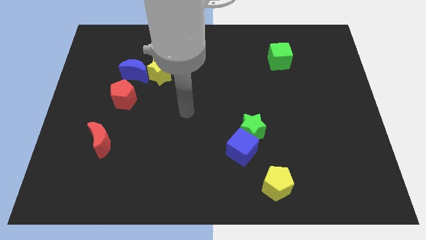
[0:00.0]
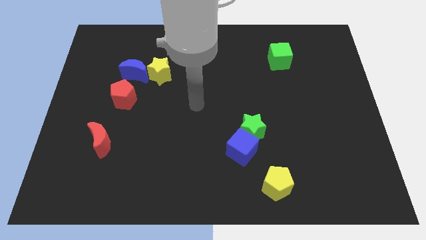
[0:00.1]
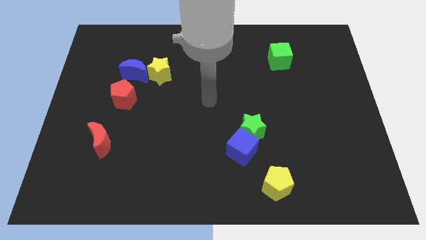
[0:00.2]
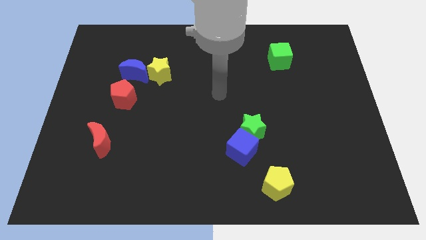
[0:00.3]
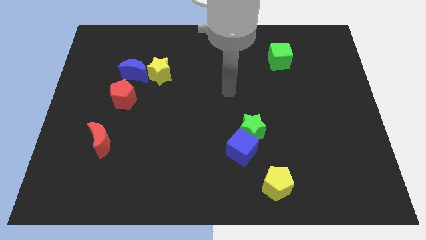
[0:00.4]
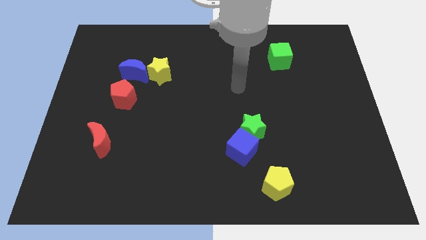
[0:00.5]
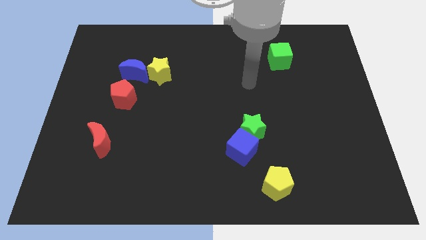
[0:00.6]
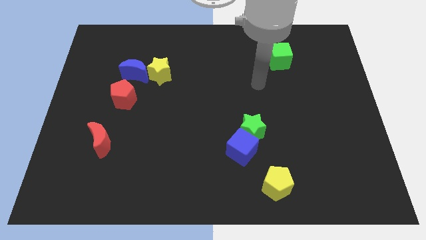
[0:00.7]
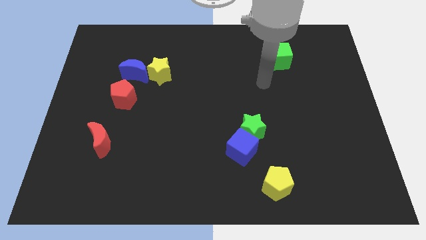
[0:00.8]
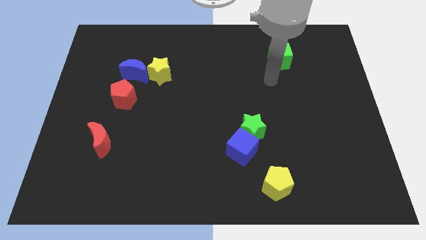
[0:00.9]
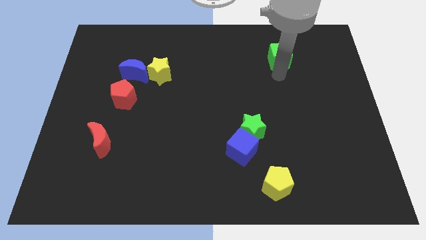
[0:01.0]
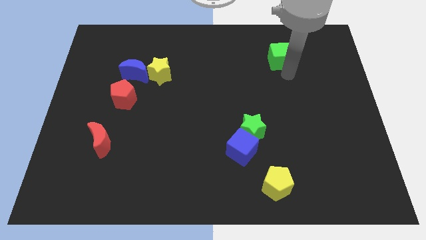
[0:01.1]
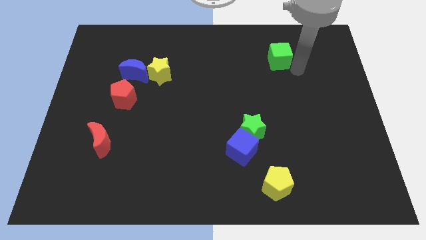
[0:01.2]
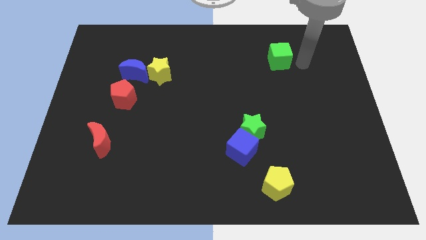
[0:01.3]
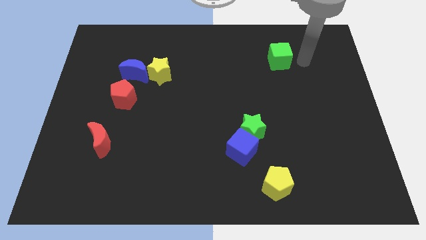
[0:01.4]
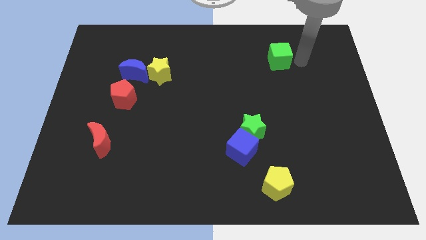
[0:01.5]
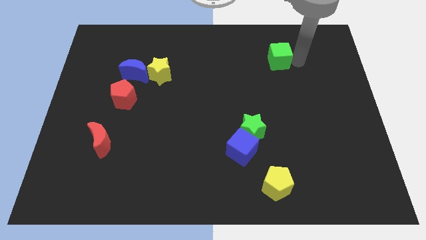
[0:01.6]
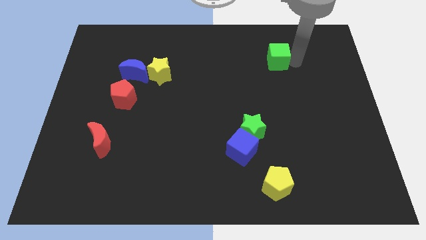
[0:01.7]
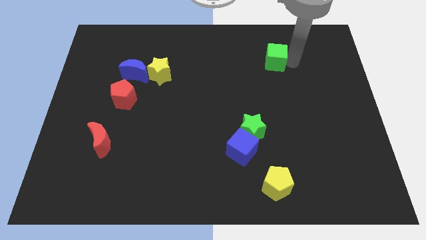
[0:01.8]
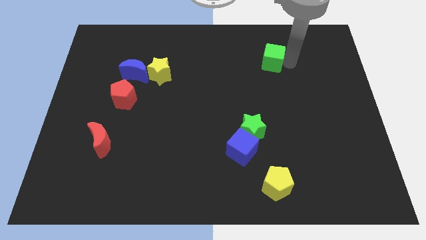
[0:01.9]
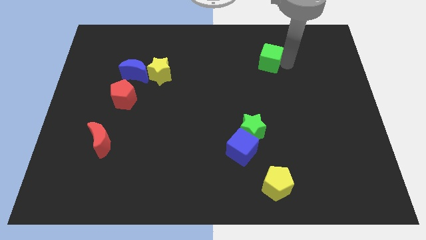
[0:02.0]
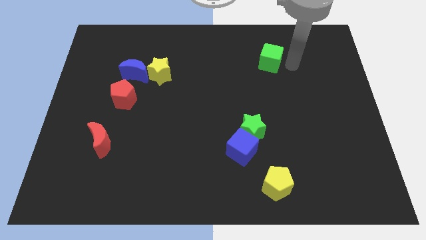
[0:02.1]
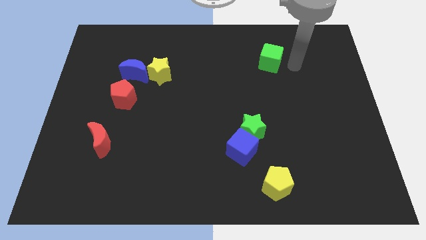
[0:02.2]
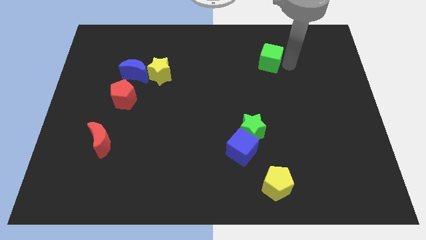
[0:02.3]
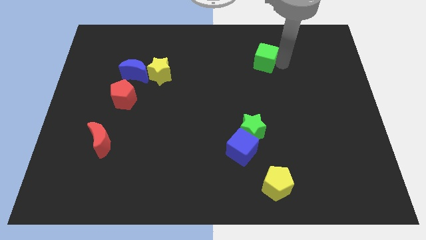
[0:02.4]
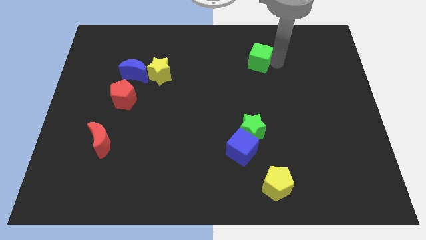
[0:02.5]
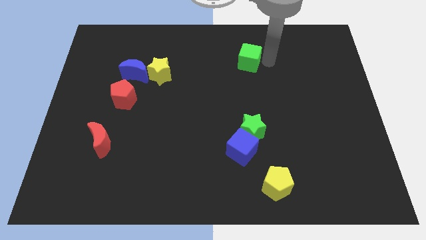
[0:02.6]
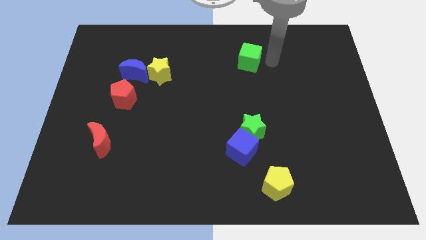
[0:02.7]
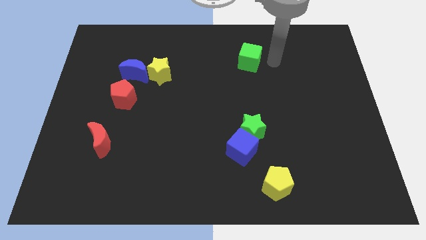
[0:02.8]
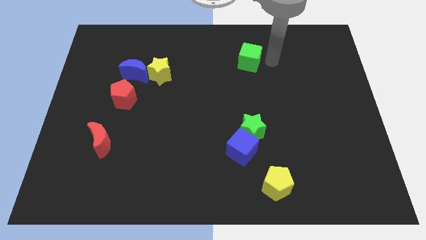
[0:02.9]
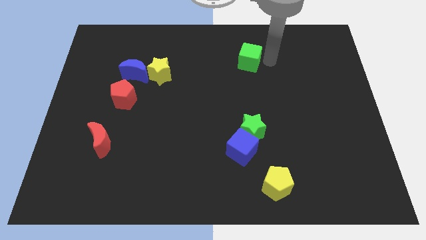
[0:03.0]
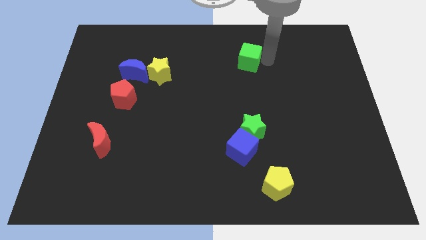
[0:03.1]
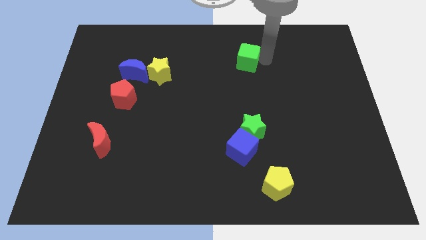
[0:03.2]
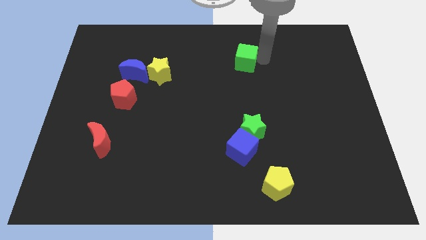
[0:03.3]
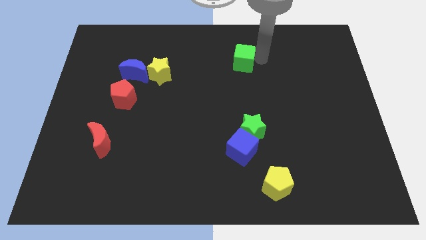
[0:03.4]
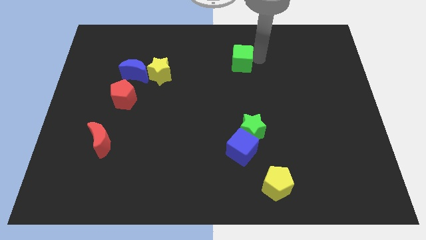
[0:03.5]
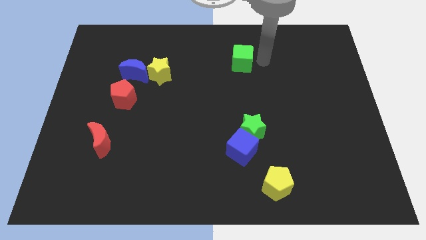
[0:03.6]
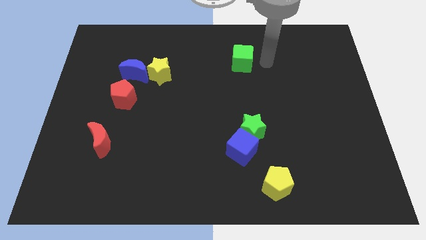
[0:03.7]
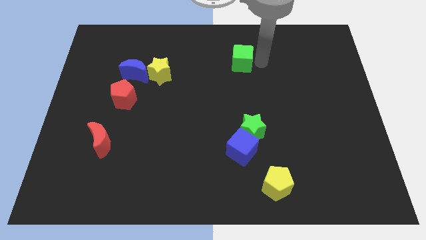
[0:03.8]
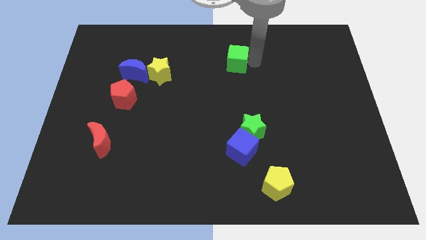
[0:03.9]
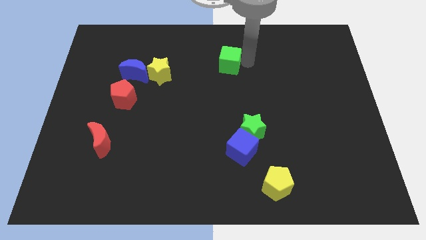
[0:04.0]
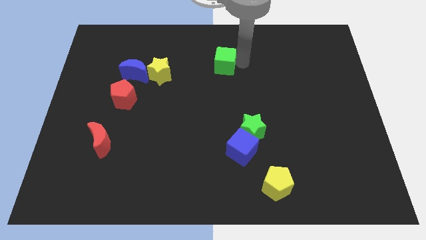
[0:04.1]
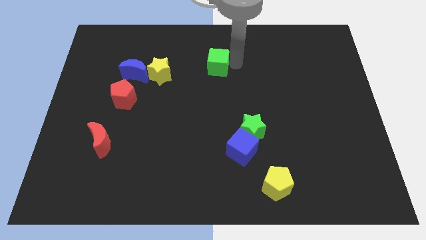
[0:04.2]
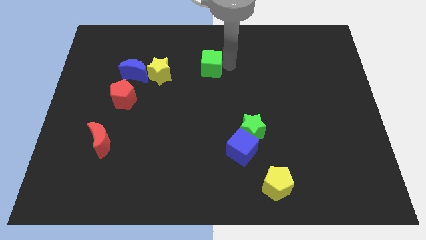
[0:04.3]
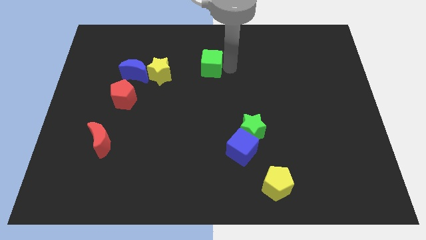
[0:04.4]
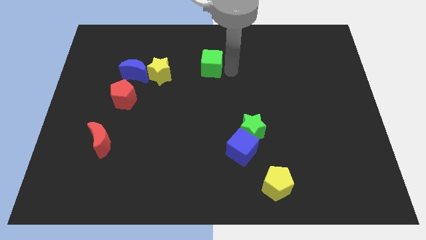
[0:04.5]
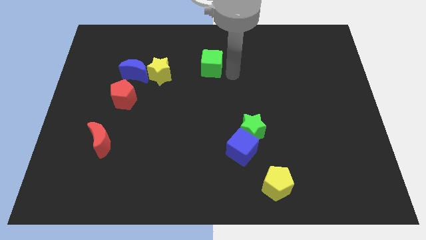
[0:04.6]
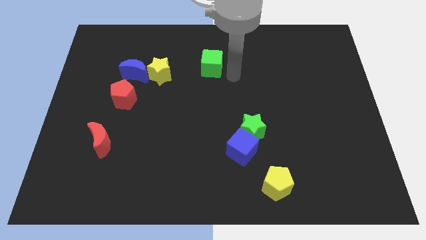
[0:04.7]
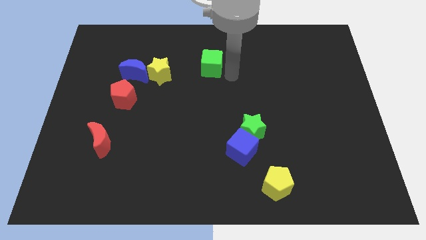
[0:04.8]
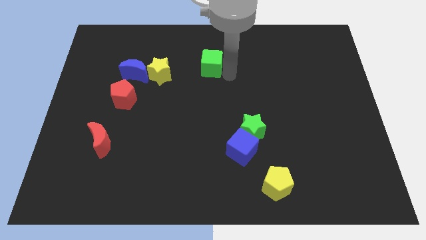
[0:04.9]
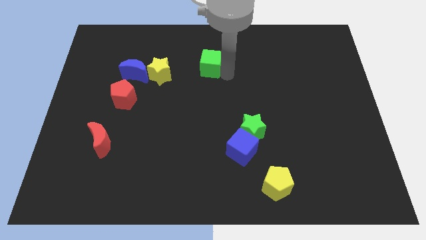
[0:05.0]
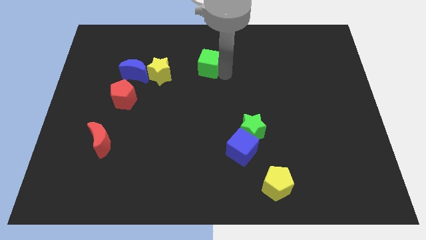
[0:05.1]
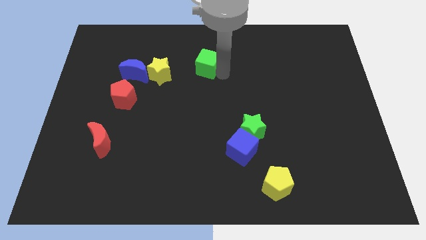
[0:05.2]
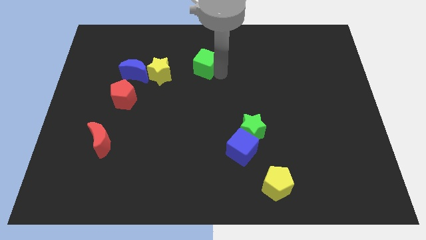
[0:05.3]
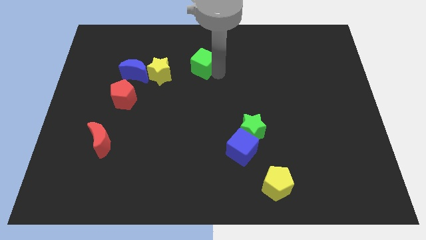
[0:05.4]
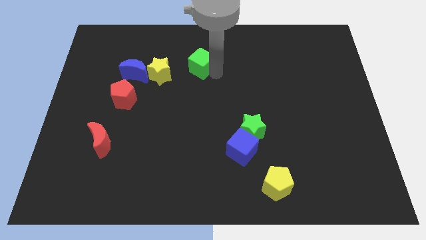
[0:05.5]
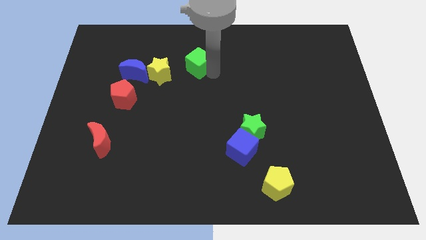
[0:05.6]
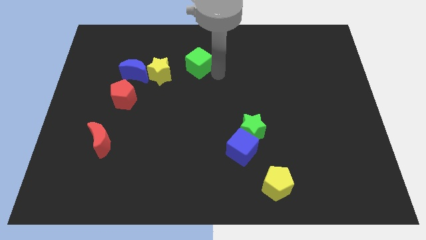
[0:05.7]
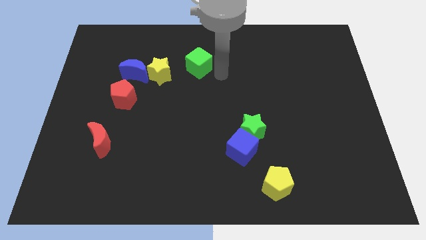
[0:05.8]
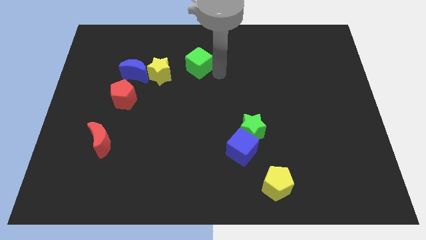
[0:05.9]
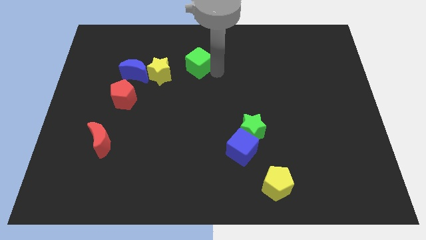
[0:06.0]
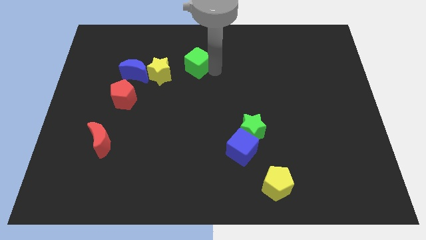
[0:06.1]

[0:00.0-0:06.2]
put the green cube to the top right of the yellow star

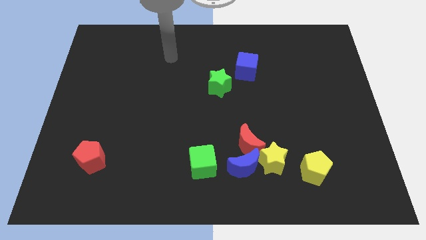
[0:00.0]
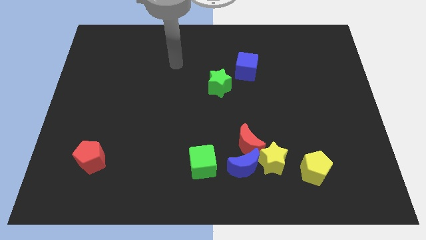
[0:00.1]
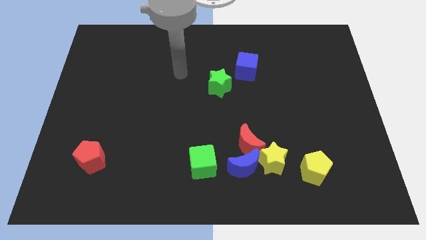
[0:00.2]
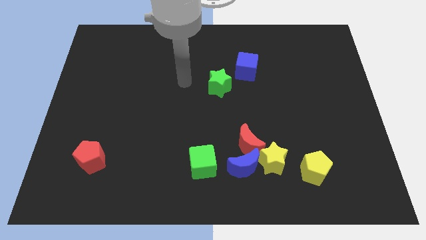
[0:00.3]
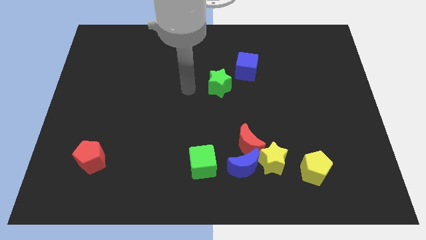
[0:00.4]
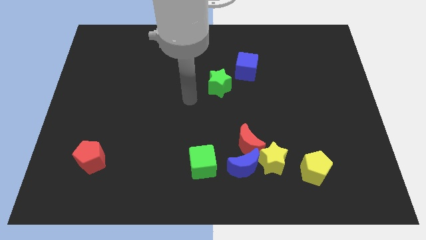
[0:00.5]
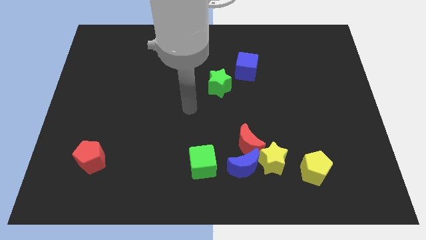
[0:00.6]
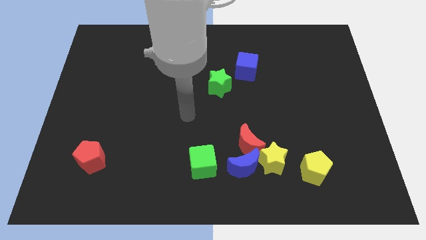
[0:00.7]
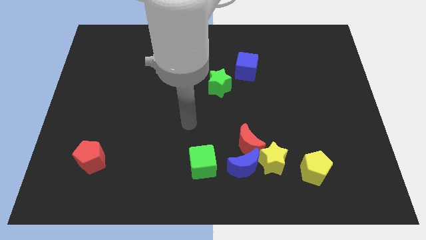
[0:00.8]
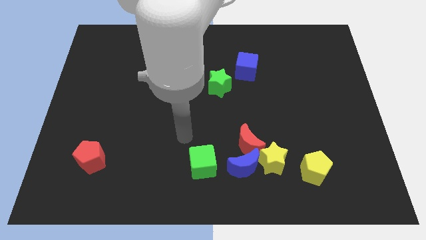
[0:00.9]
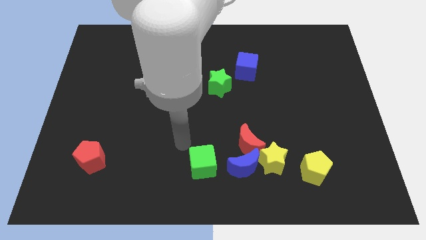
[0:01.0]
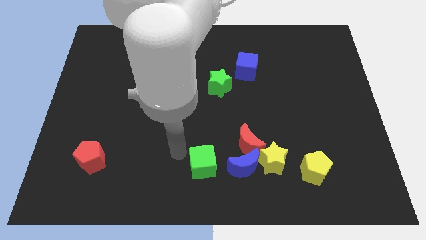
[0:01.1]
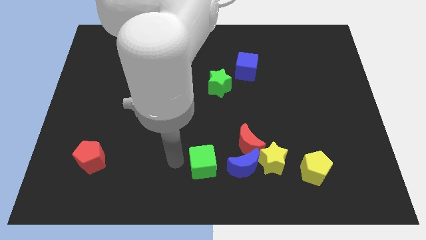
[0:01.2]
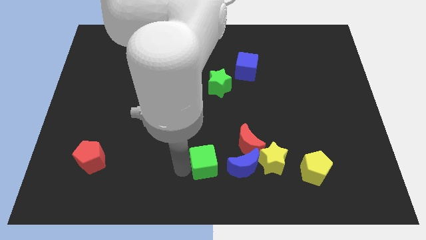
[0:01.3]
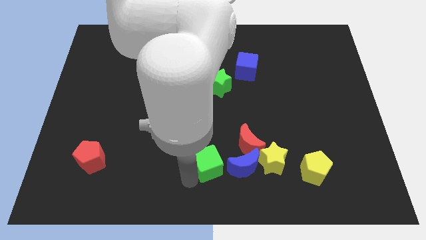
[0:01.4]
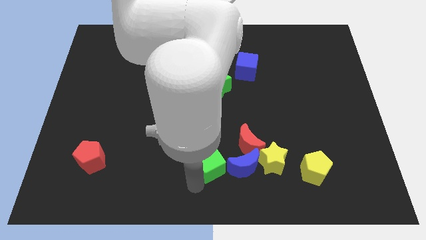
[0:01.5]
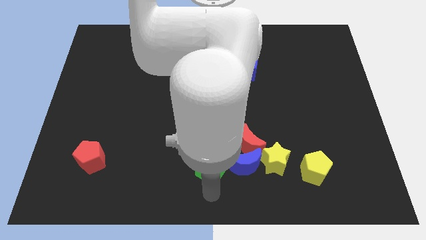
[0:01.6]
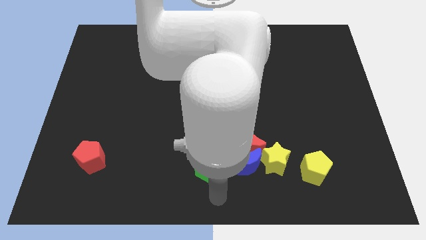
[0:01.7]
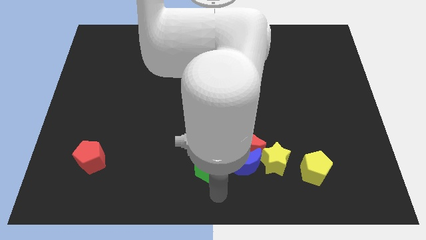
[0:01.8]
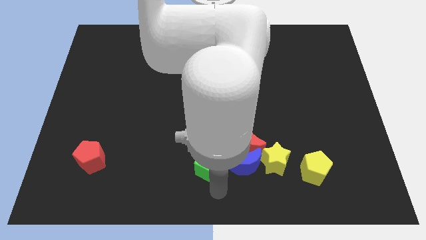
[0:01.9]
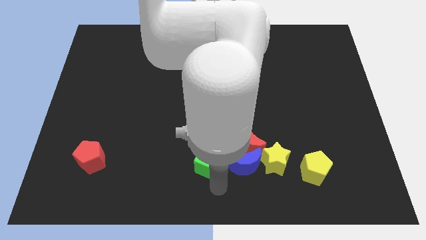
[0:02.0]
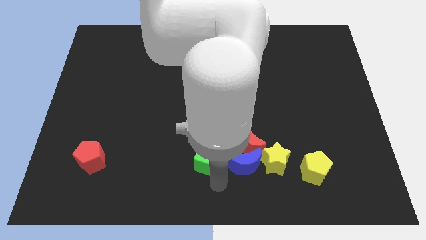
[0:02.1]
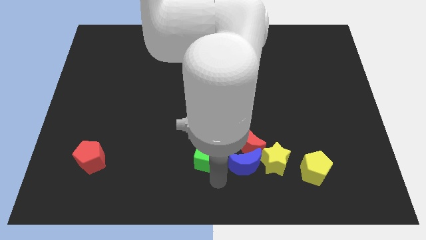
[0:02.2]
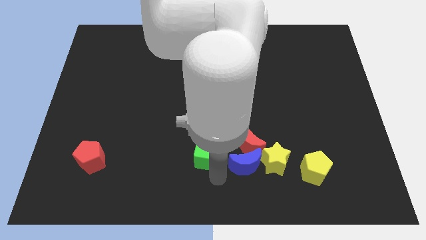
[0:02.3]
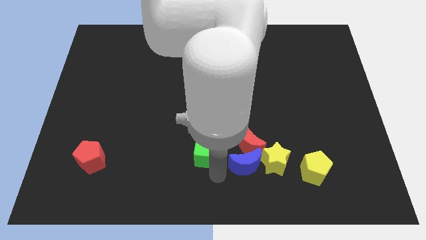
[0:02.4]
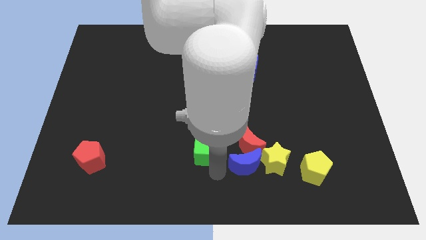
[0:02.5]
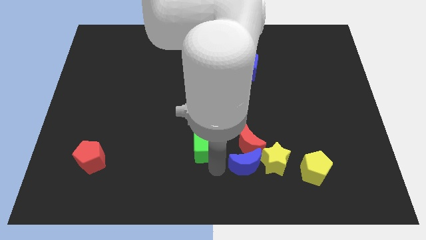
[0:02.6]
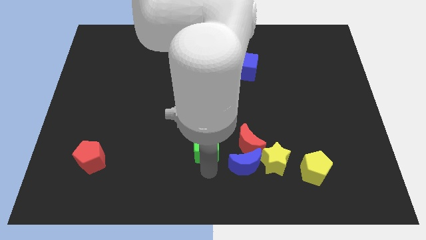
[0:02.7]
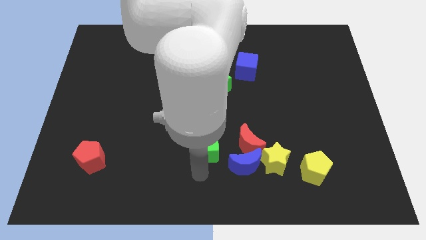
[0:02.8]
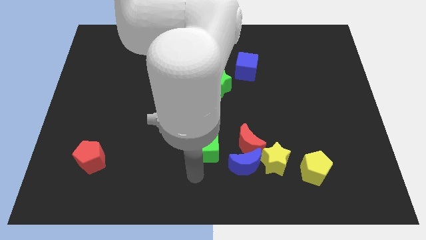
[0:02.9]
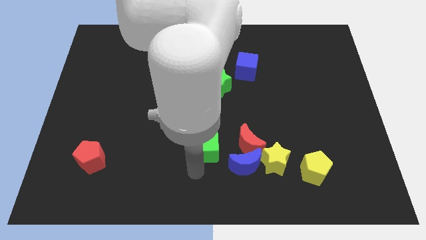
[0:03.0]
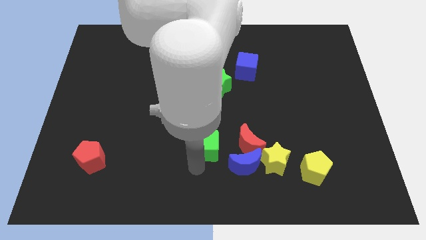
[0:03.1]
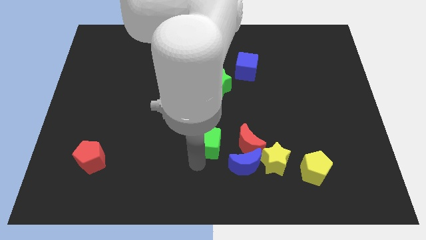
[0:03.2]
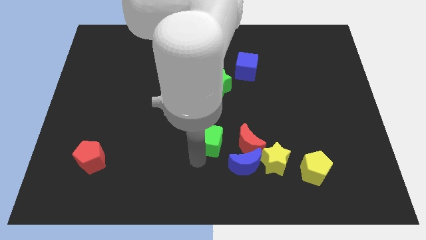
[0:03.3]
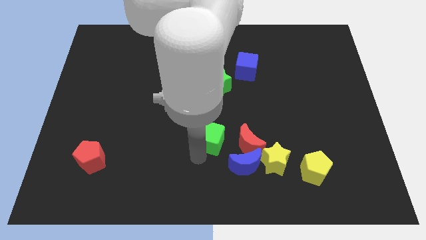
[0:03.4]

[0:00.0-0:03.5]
move the green cube below the green star
